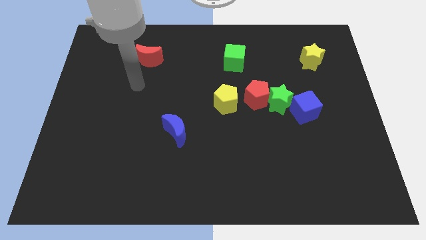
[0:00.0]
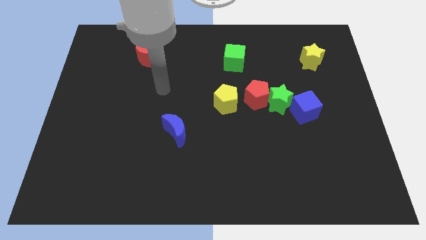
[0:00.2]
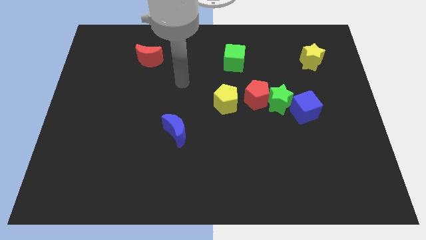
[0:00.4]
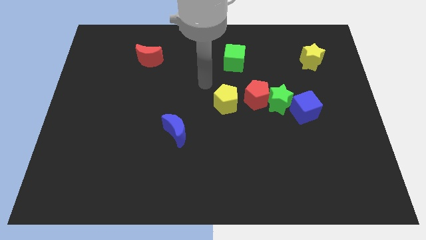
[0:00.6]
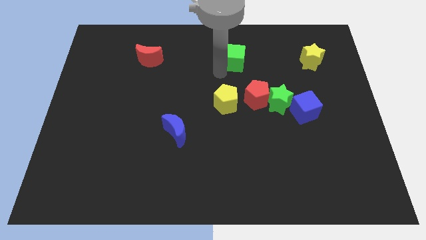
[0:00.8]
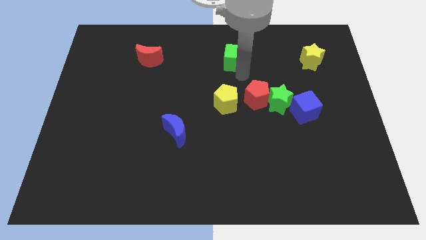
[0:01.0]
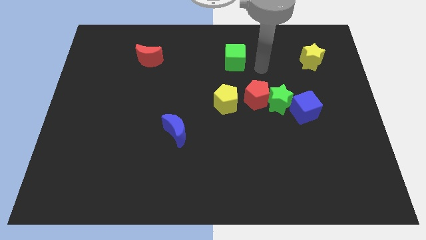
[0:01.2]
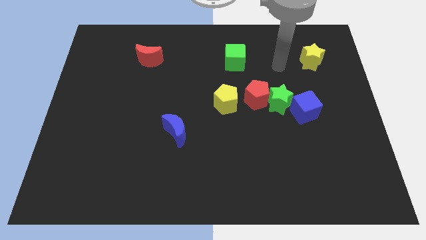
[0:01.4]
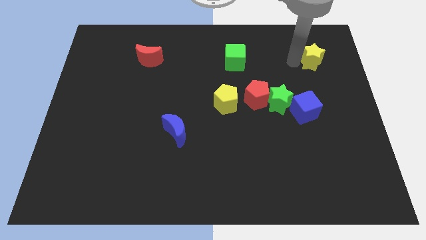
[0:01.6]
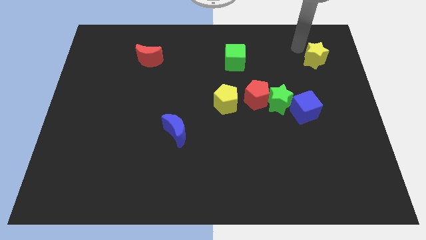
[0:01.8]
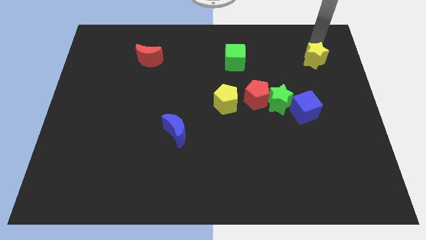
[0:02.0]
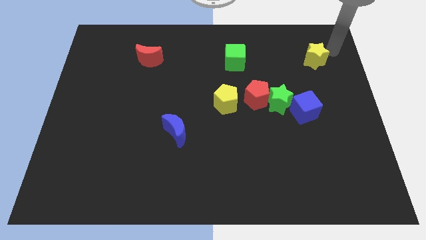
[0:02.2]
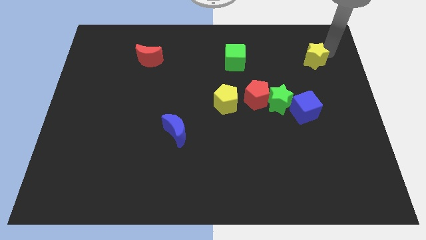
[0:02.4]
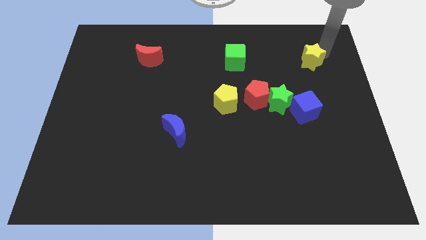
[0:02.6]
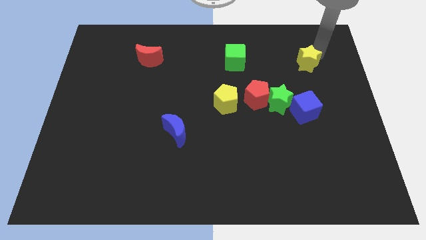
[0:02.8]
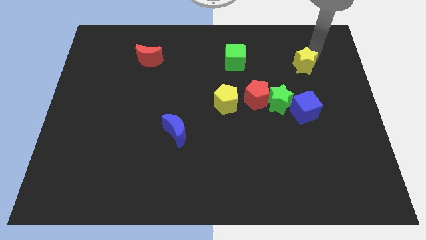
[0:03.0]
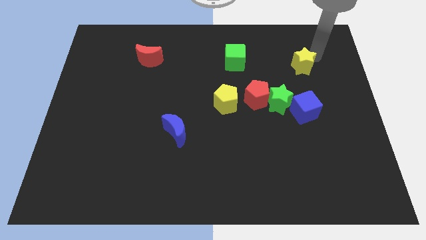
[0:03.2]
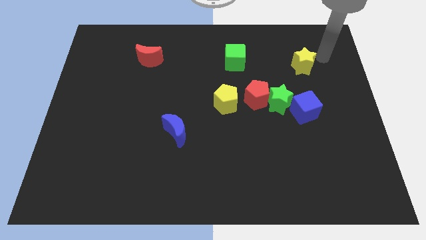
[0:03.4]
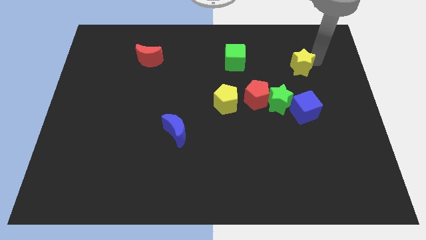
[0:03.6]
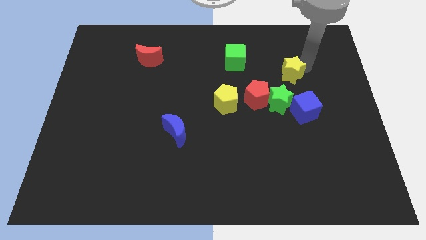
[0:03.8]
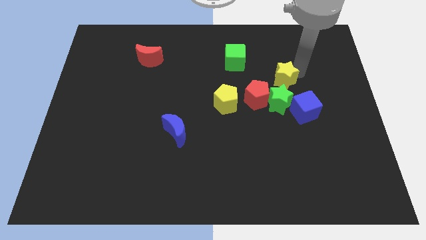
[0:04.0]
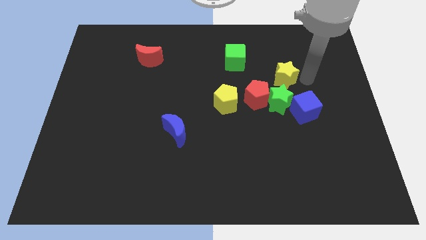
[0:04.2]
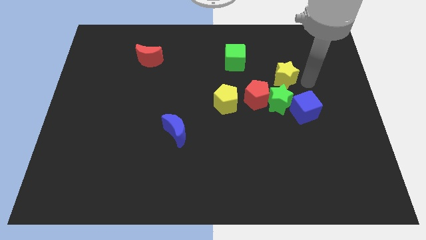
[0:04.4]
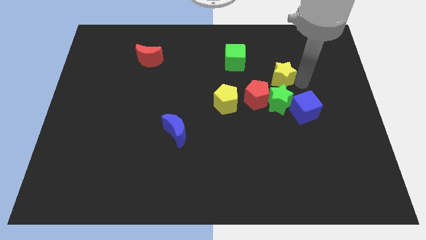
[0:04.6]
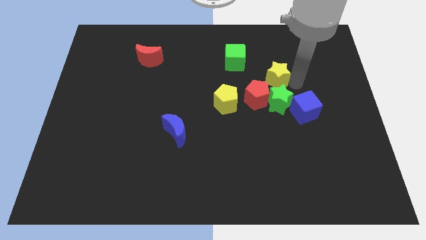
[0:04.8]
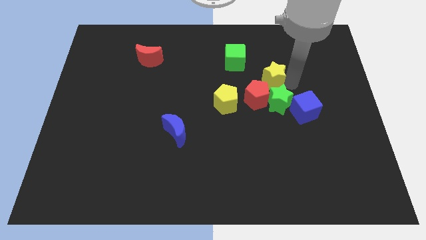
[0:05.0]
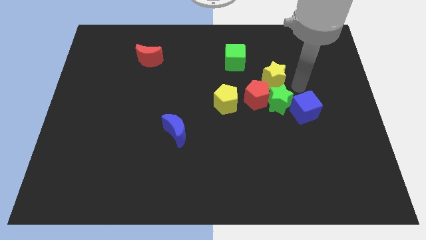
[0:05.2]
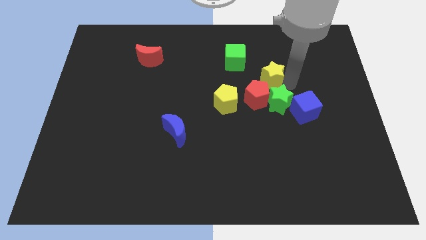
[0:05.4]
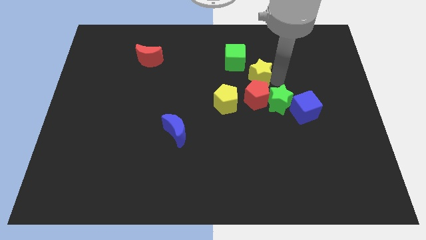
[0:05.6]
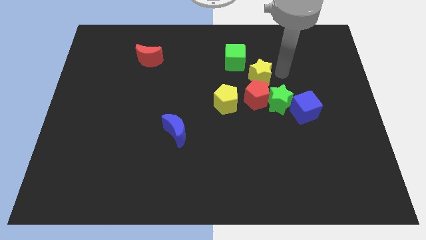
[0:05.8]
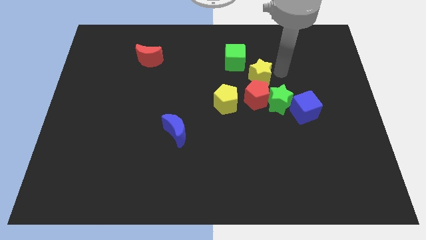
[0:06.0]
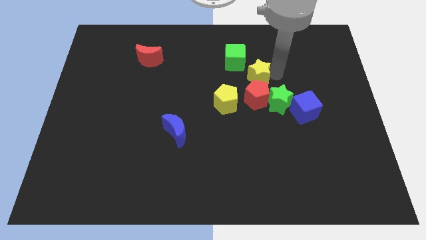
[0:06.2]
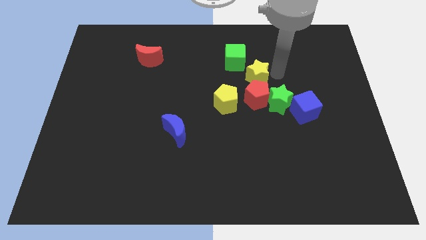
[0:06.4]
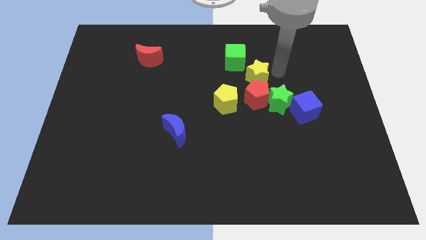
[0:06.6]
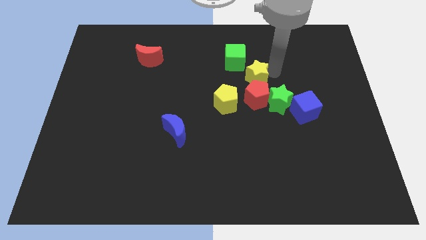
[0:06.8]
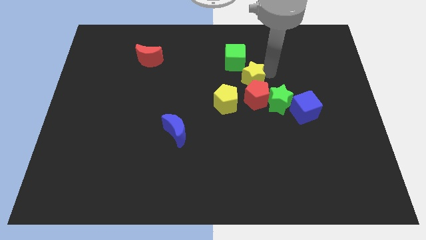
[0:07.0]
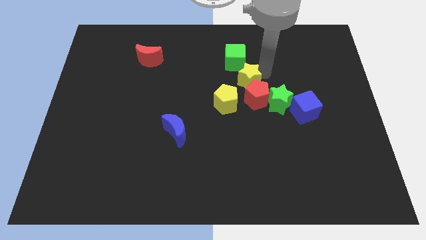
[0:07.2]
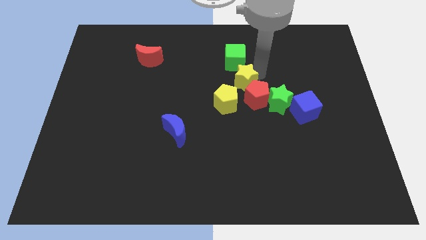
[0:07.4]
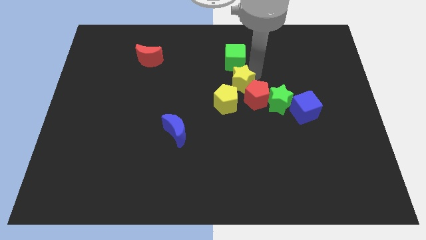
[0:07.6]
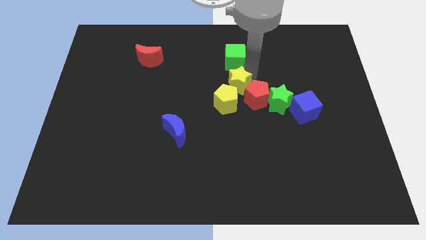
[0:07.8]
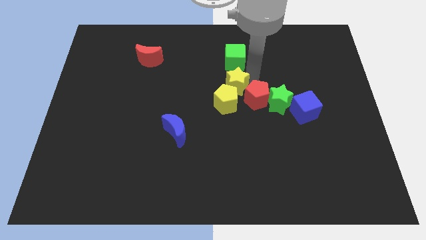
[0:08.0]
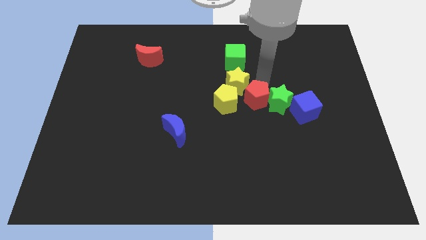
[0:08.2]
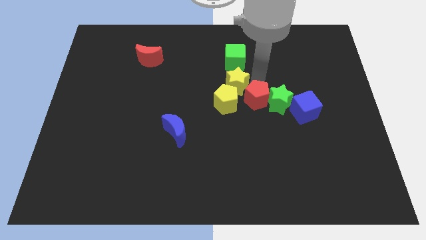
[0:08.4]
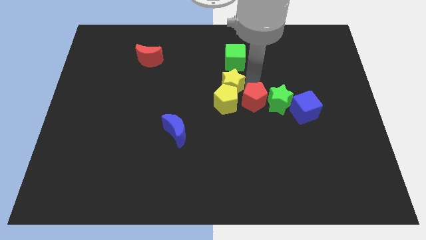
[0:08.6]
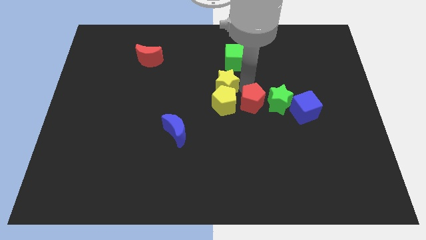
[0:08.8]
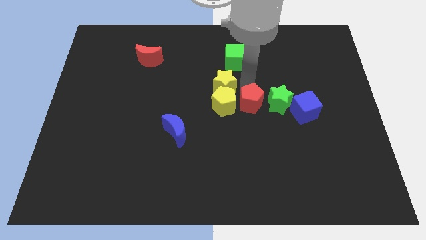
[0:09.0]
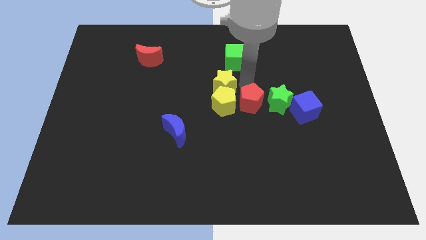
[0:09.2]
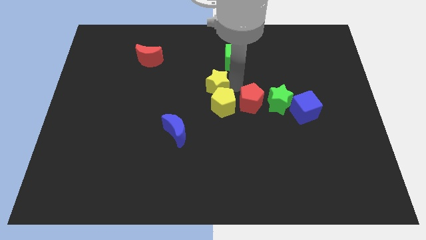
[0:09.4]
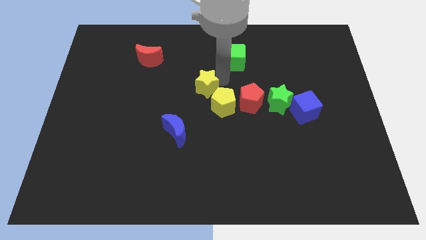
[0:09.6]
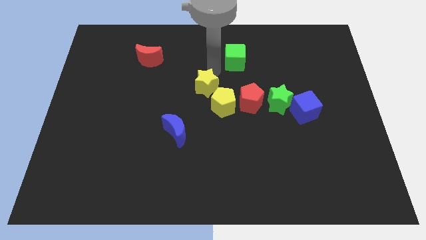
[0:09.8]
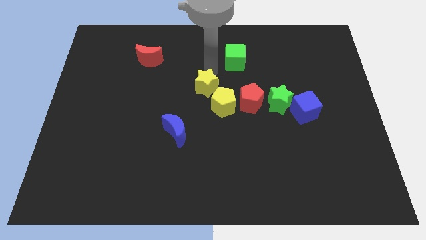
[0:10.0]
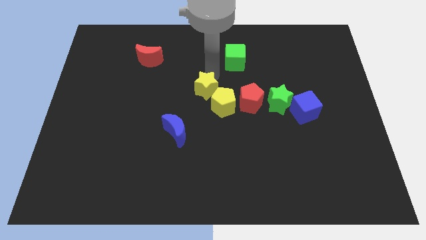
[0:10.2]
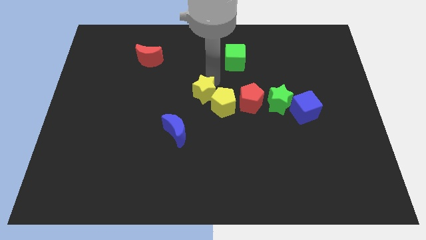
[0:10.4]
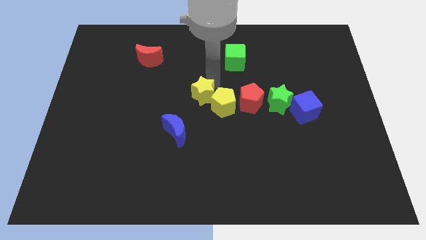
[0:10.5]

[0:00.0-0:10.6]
put the yellow star to the top right of the blue moon

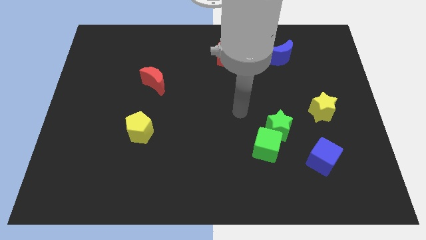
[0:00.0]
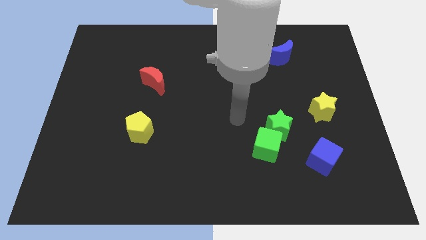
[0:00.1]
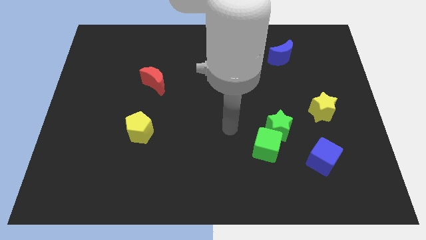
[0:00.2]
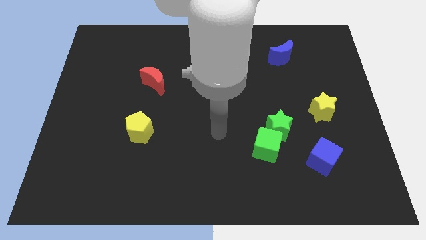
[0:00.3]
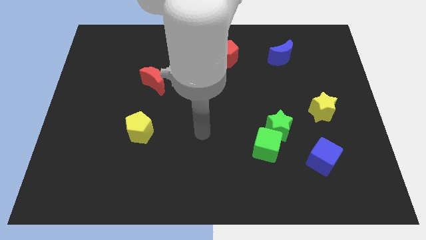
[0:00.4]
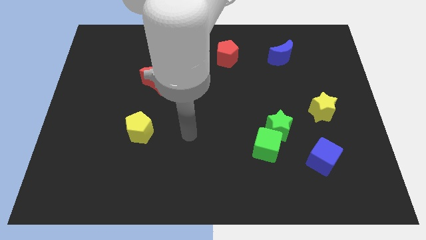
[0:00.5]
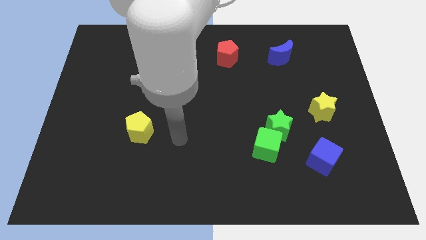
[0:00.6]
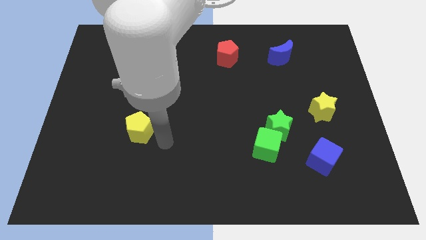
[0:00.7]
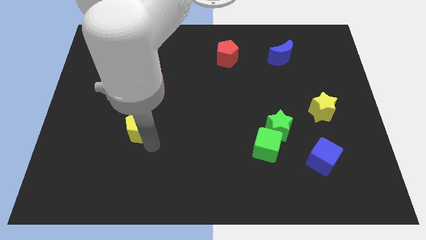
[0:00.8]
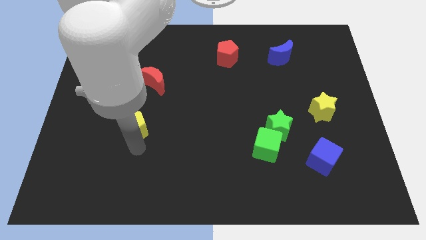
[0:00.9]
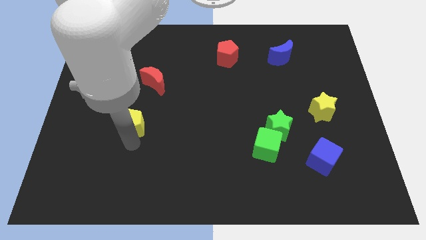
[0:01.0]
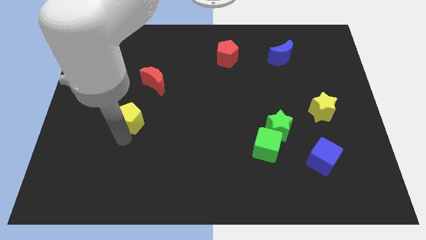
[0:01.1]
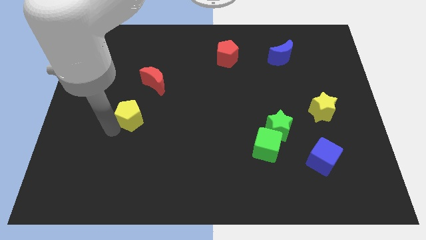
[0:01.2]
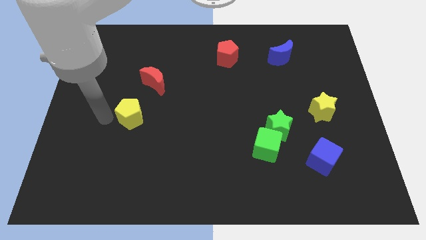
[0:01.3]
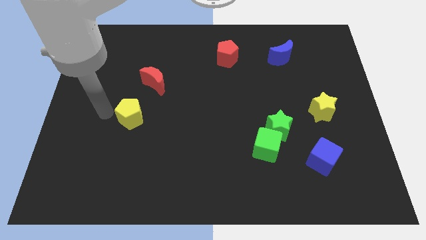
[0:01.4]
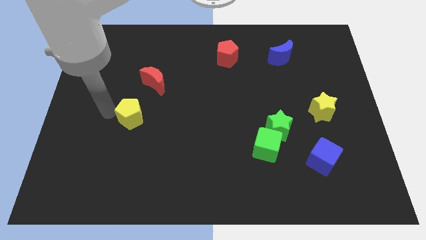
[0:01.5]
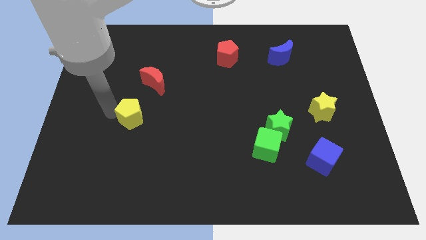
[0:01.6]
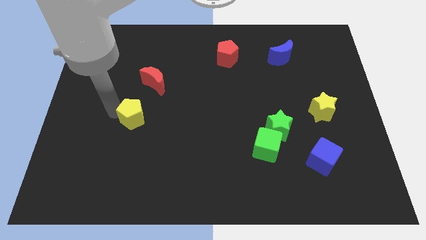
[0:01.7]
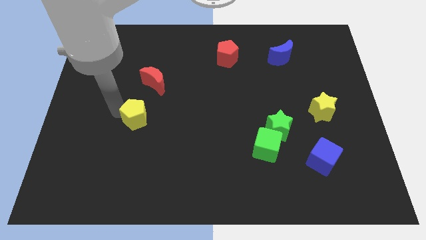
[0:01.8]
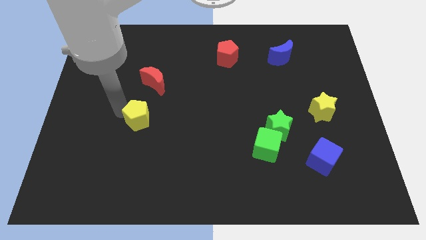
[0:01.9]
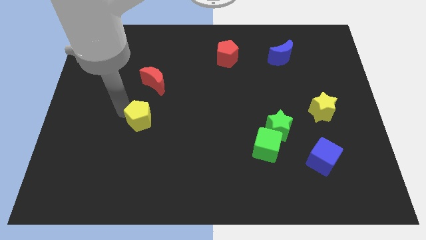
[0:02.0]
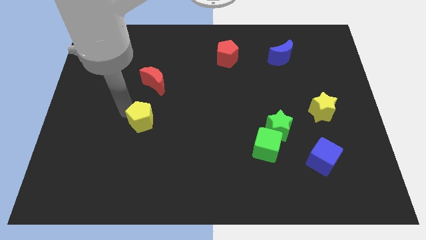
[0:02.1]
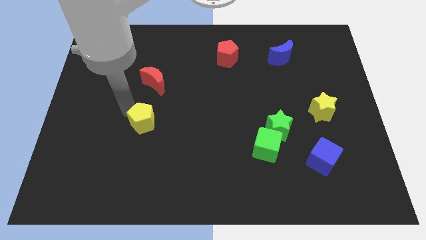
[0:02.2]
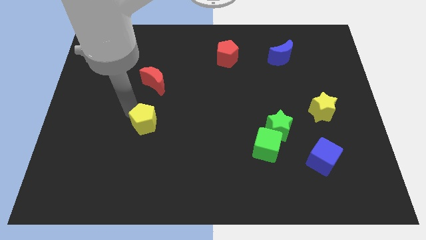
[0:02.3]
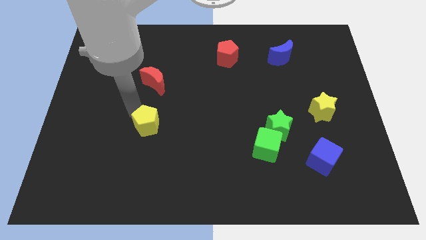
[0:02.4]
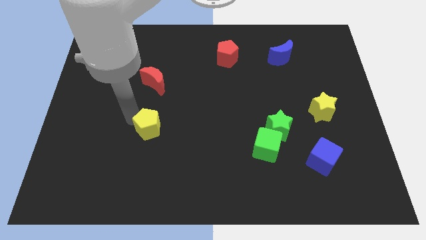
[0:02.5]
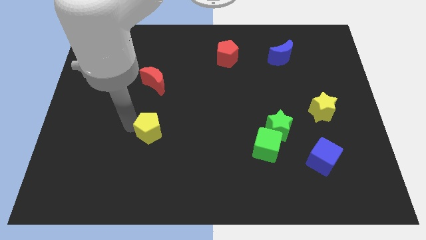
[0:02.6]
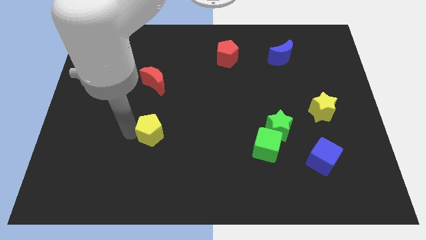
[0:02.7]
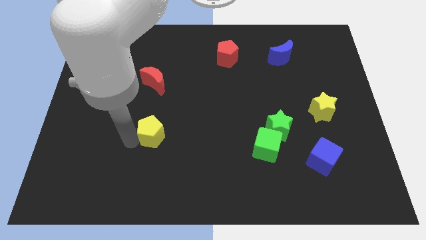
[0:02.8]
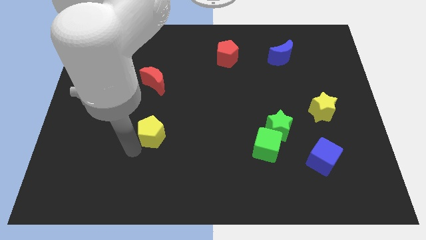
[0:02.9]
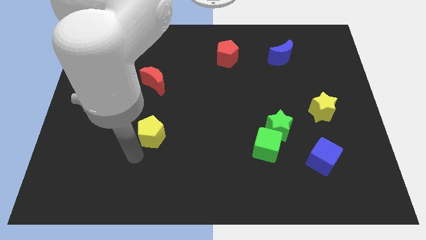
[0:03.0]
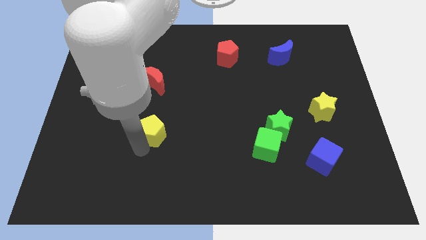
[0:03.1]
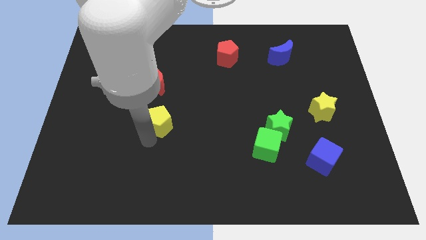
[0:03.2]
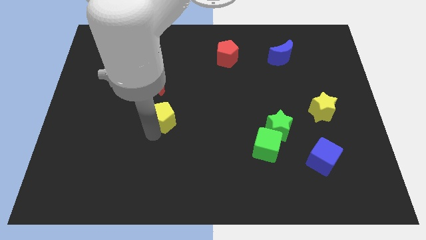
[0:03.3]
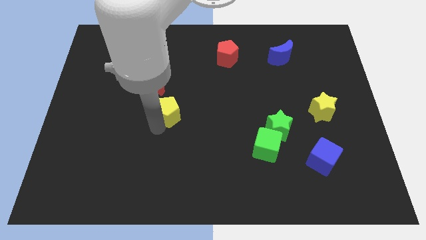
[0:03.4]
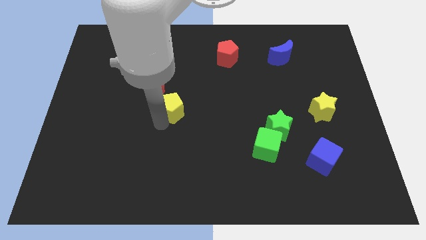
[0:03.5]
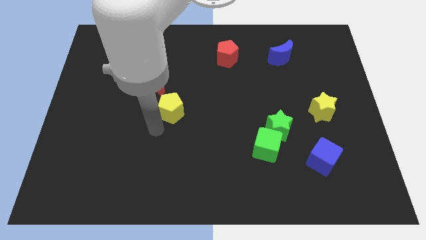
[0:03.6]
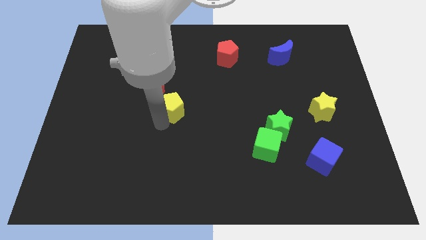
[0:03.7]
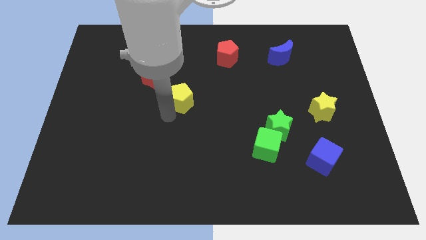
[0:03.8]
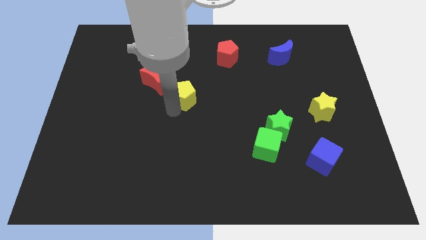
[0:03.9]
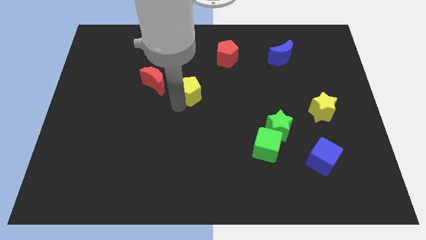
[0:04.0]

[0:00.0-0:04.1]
move the yellow pentagon just right of the red moon
